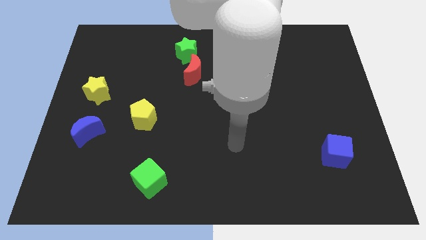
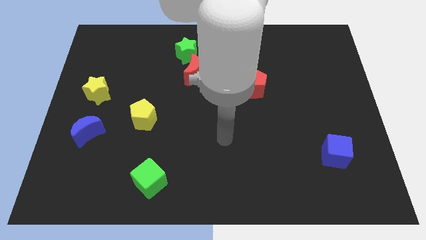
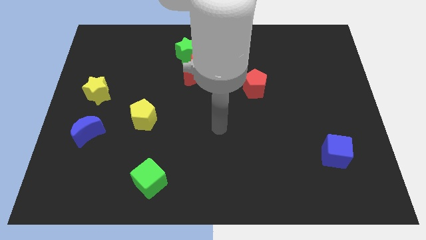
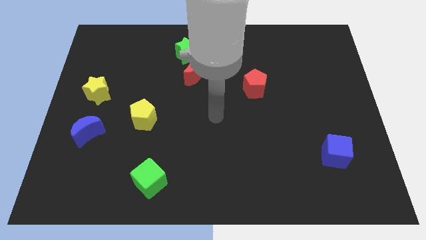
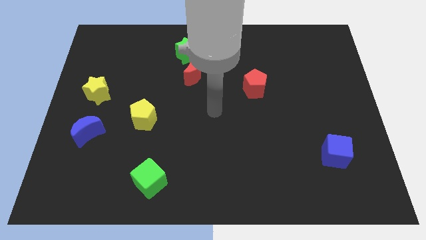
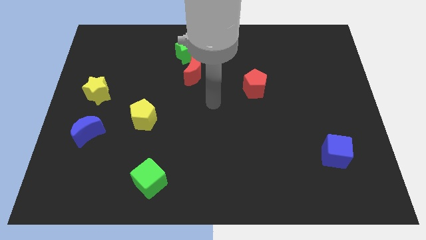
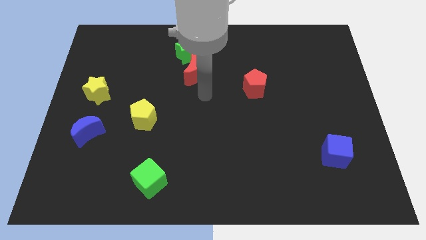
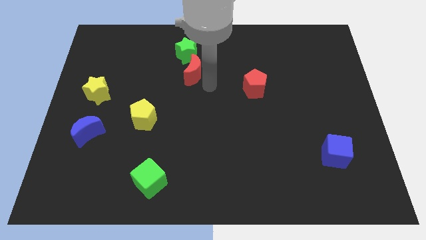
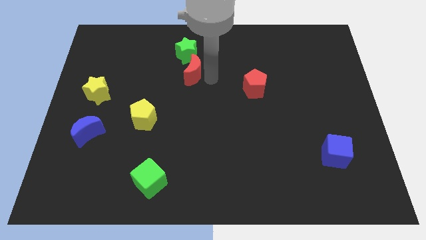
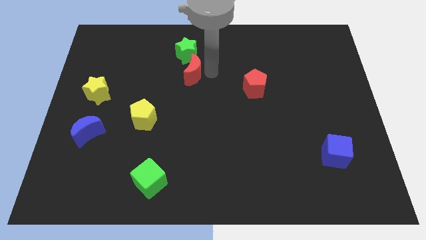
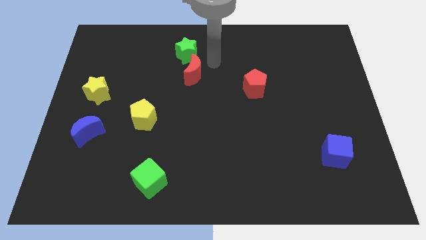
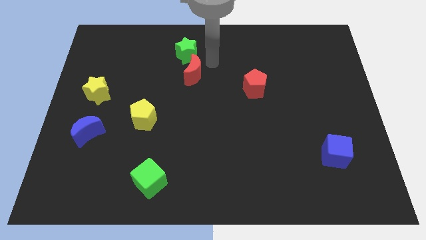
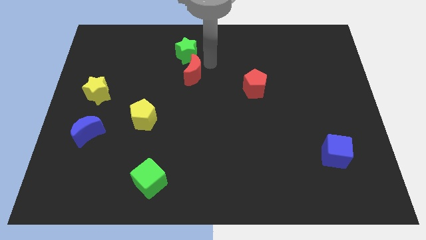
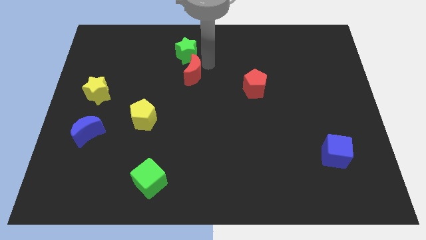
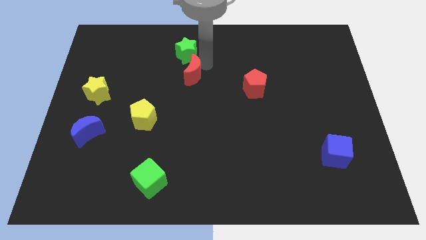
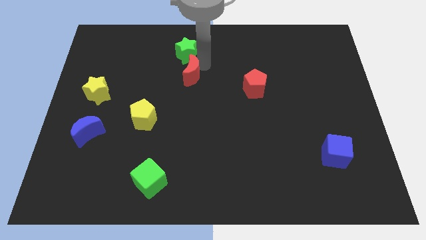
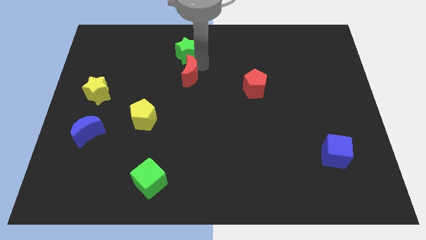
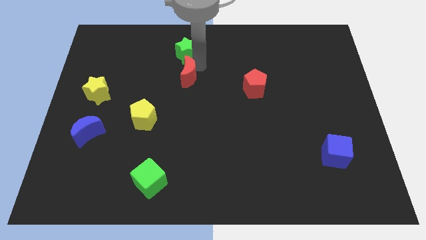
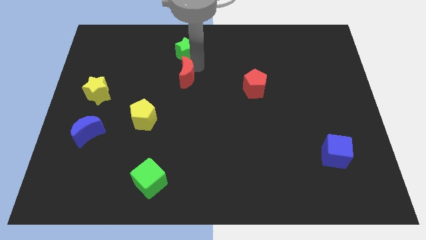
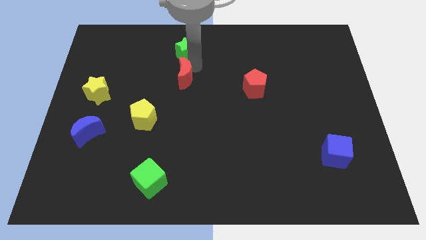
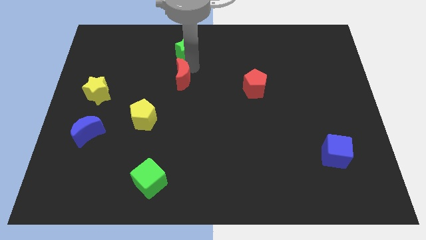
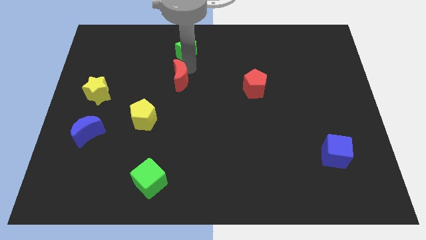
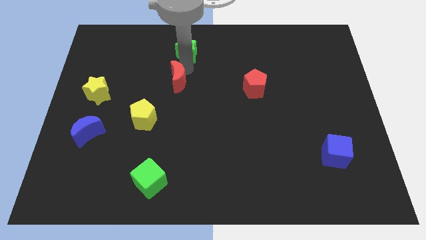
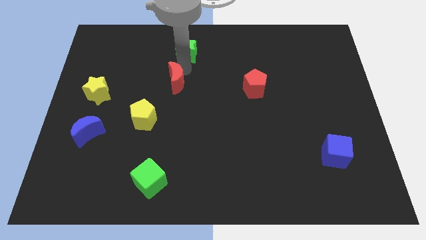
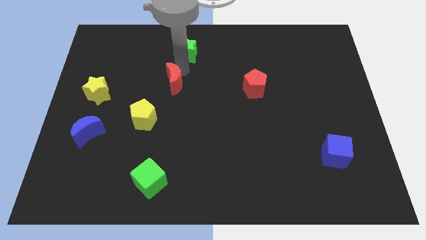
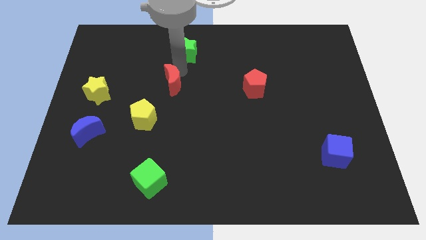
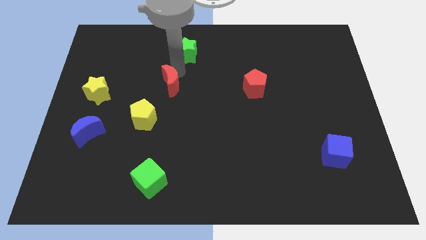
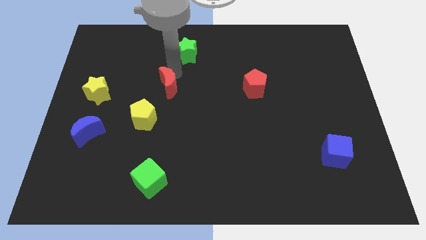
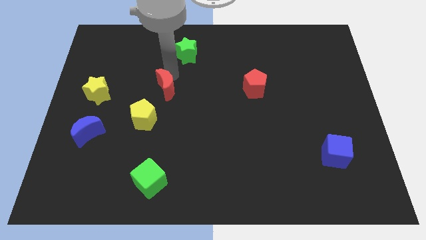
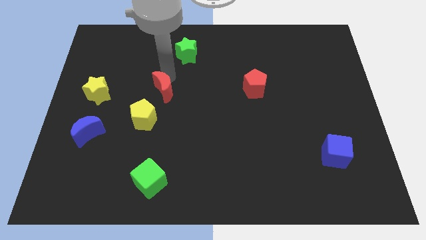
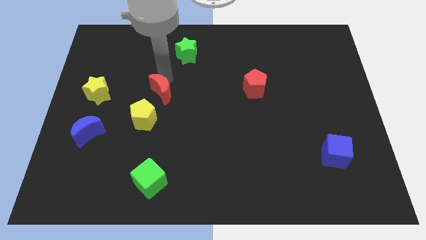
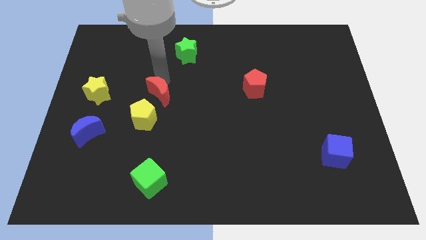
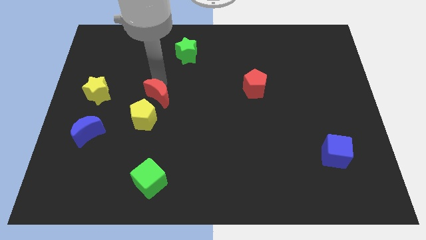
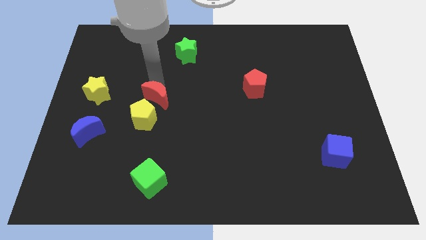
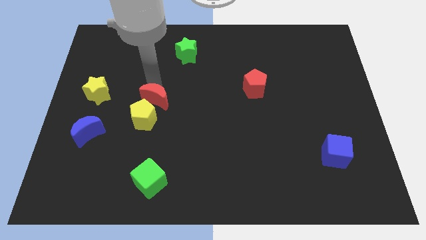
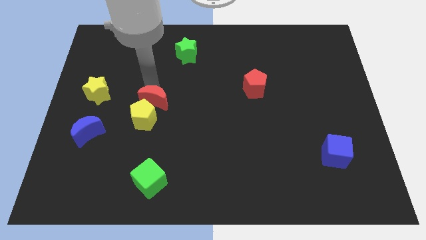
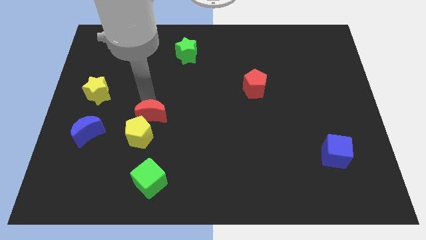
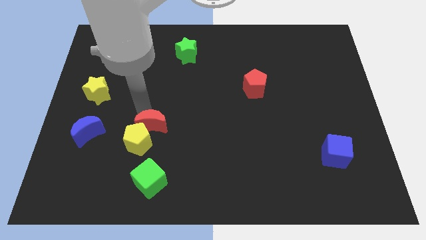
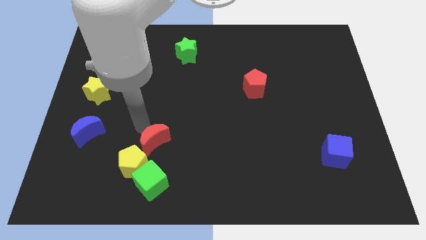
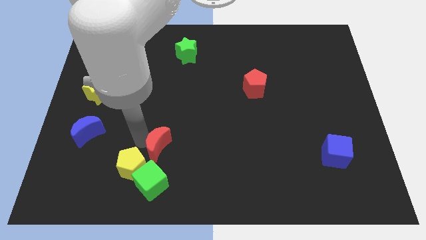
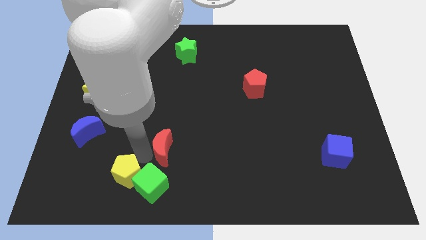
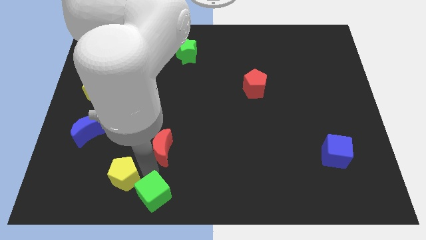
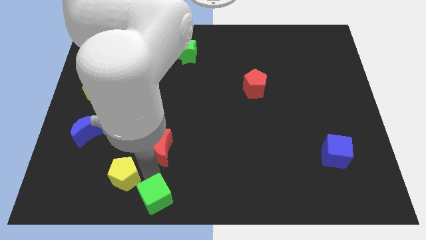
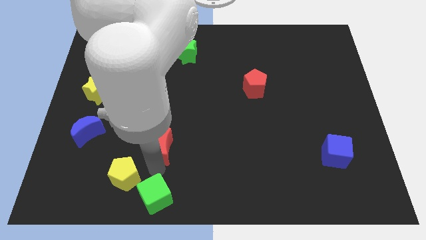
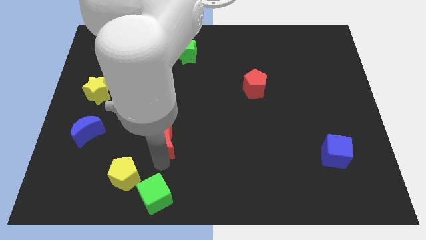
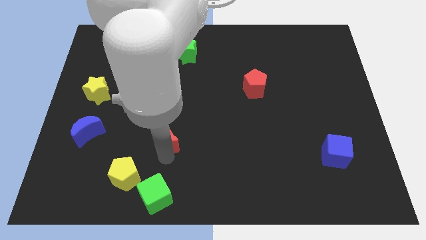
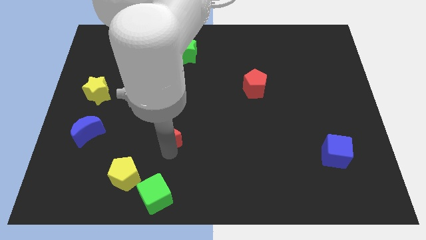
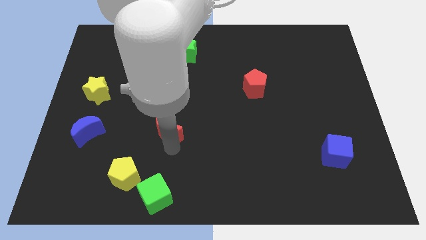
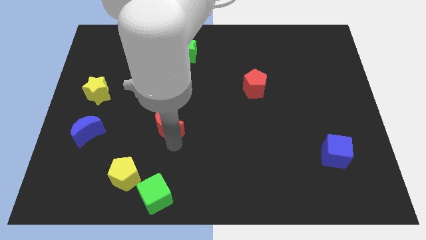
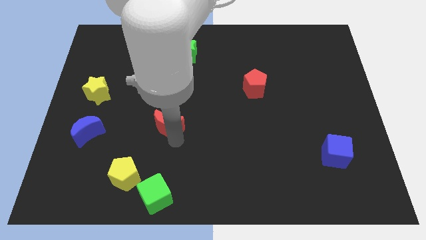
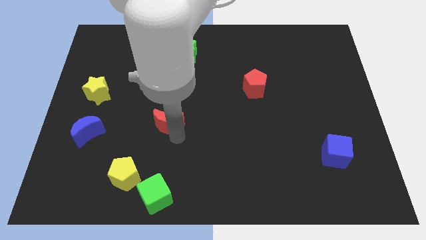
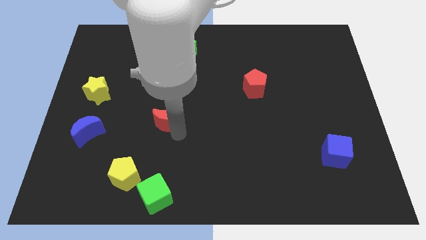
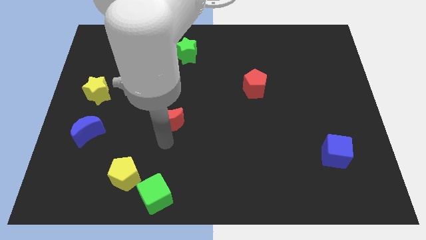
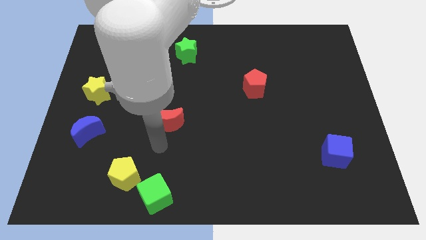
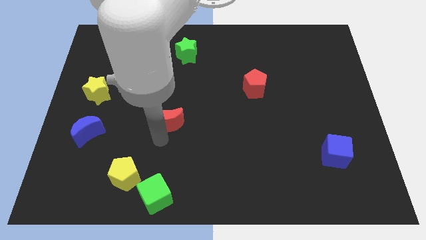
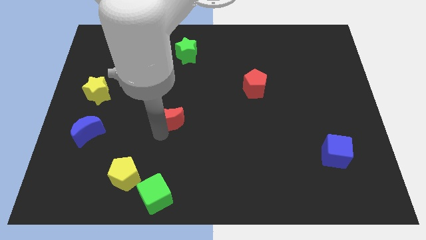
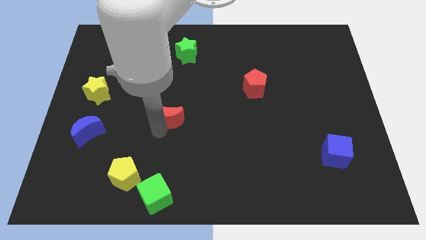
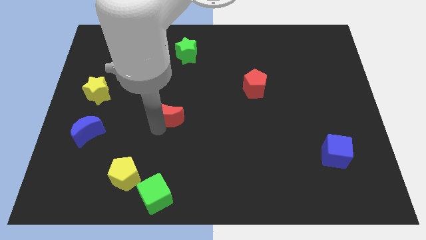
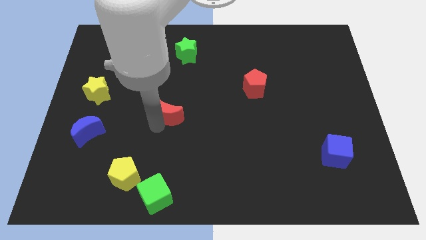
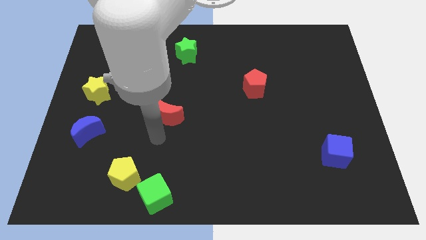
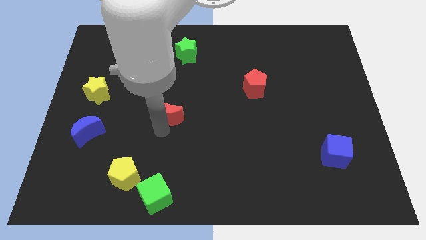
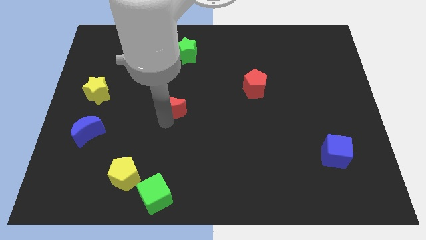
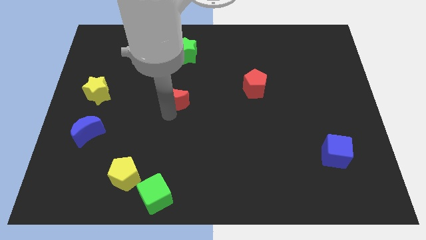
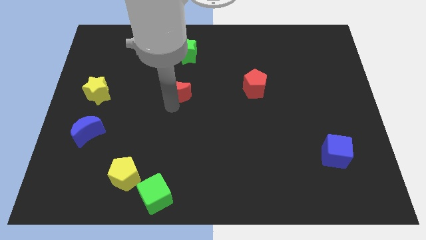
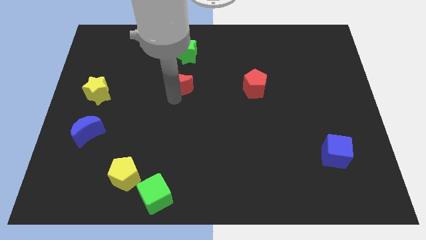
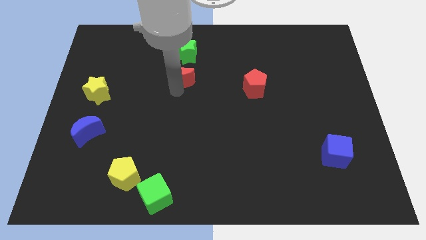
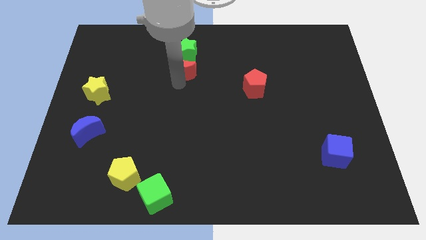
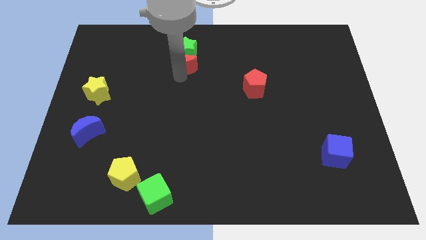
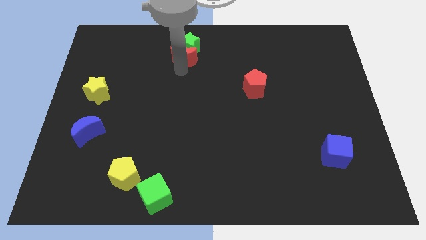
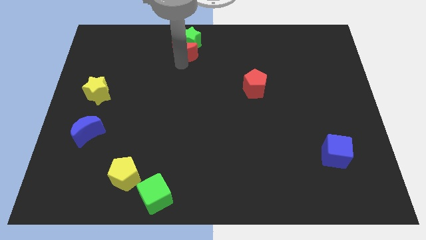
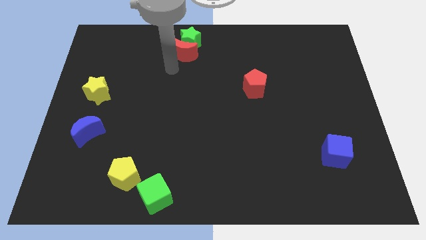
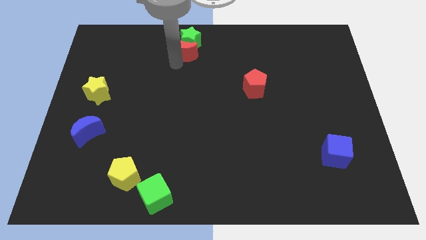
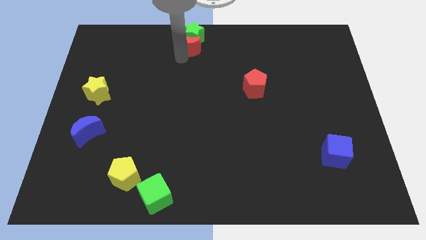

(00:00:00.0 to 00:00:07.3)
slide the red moon to the top side
